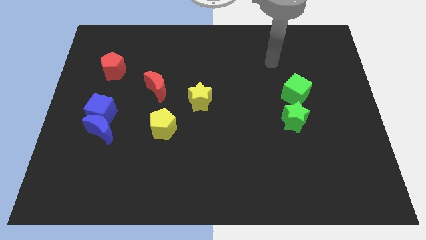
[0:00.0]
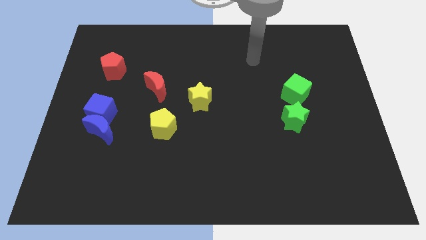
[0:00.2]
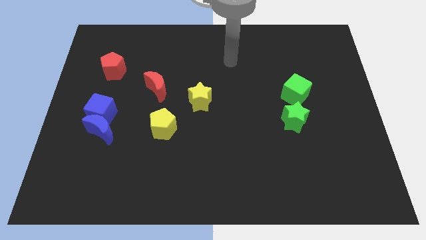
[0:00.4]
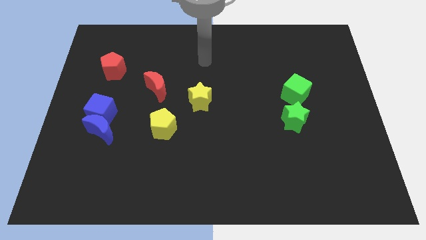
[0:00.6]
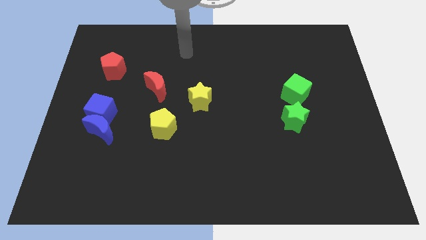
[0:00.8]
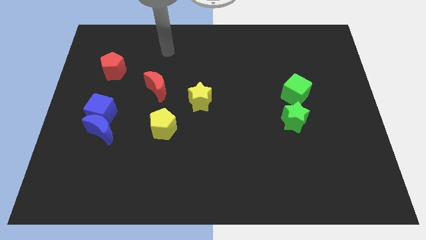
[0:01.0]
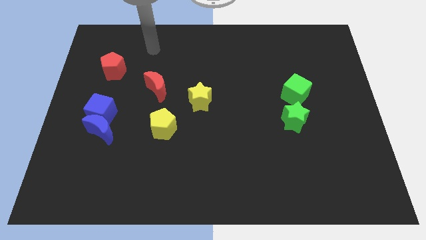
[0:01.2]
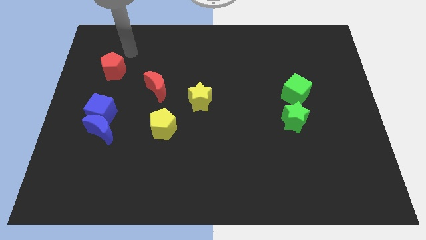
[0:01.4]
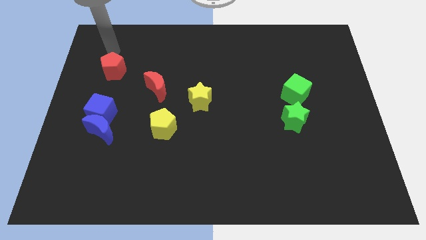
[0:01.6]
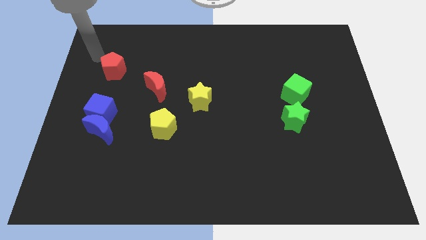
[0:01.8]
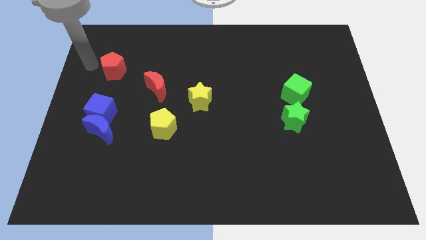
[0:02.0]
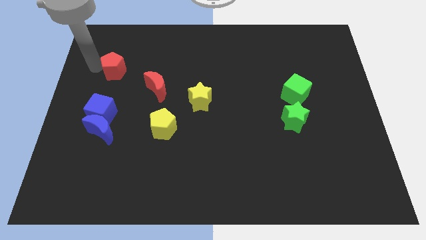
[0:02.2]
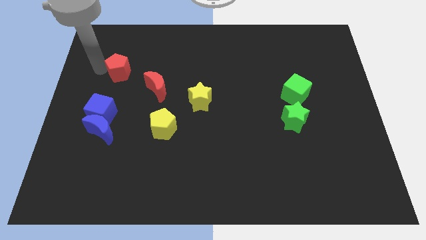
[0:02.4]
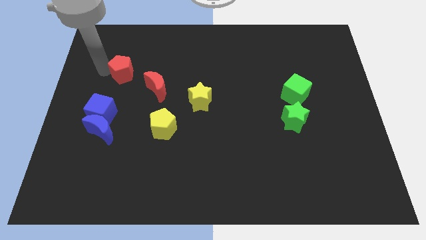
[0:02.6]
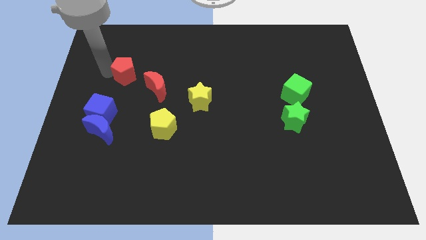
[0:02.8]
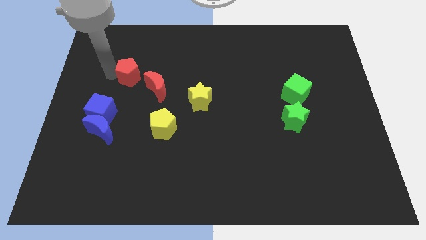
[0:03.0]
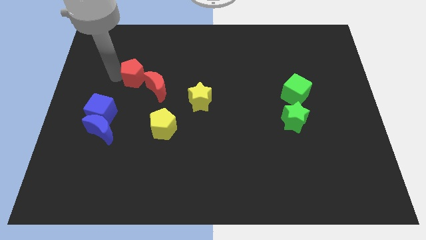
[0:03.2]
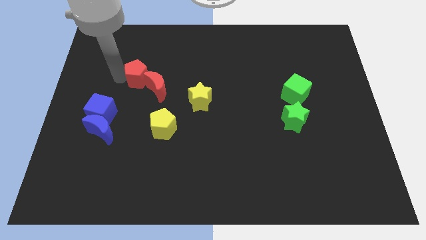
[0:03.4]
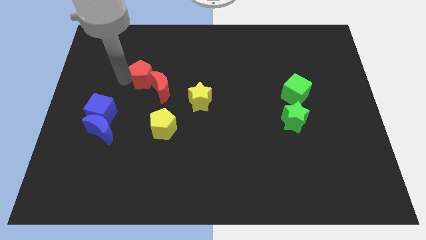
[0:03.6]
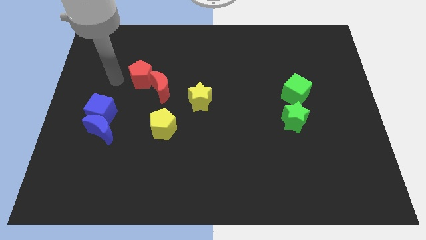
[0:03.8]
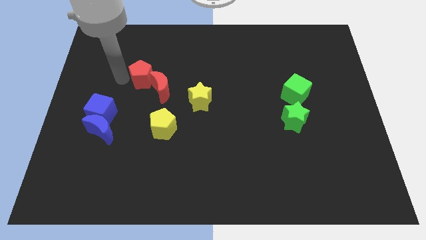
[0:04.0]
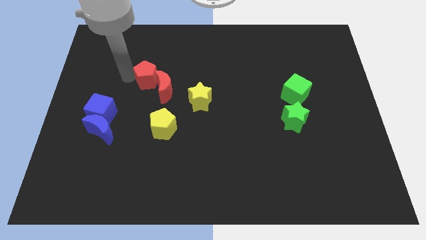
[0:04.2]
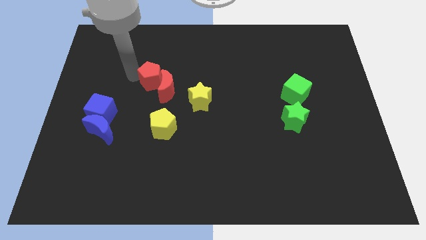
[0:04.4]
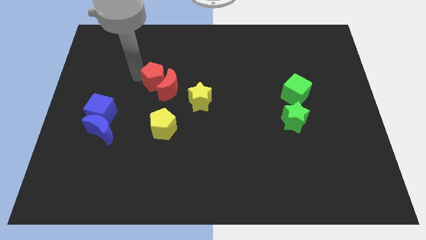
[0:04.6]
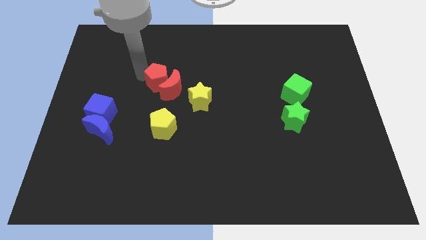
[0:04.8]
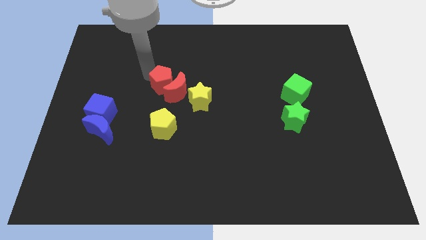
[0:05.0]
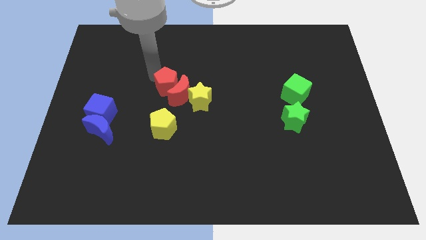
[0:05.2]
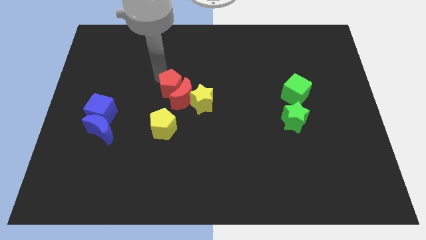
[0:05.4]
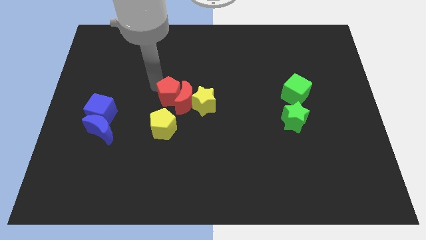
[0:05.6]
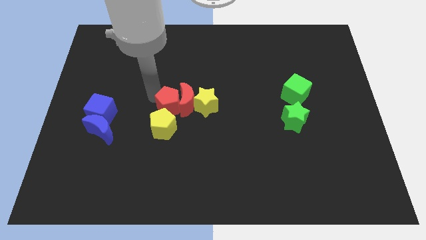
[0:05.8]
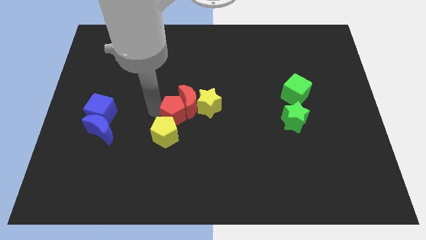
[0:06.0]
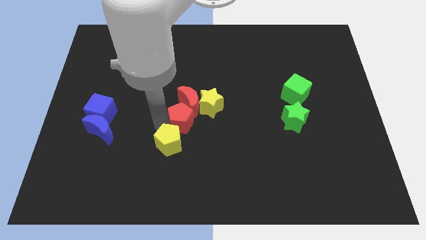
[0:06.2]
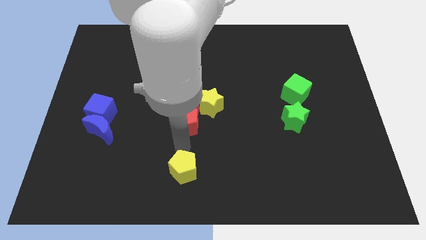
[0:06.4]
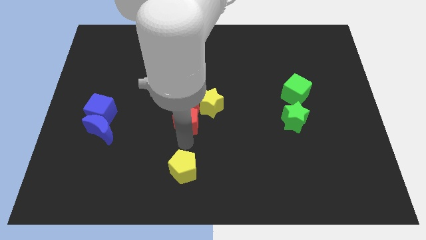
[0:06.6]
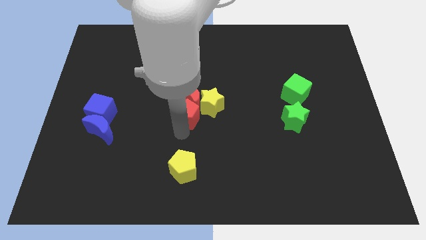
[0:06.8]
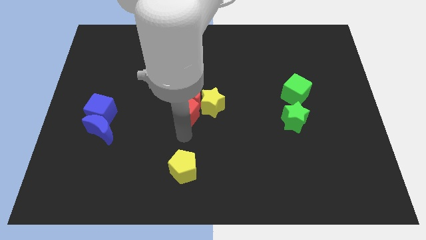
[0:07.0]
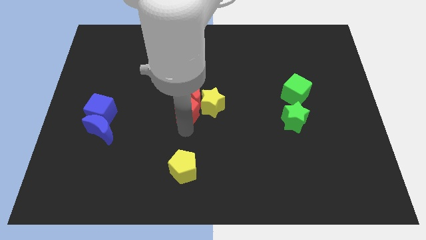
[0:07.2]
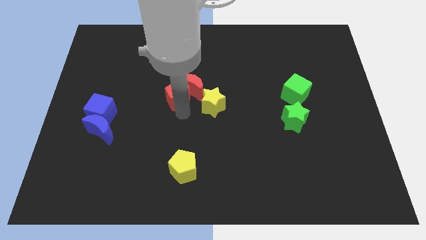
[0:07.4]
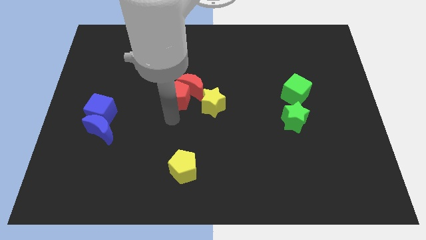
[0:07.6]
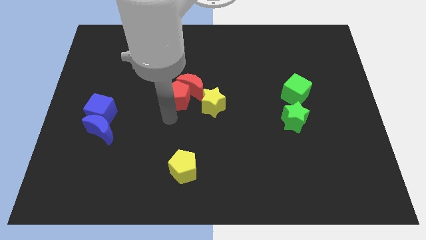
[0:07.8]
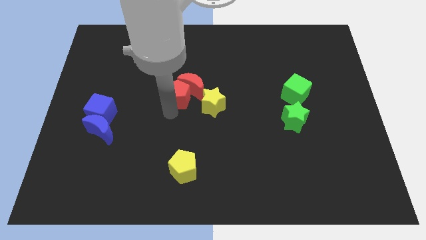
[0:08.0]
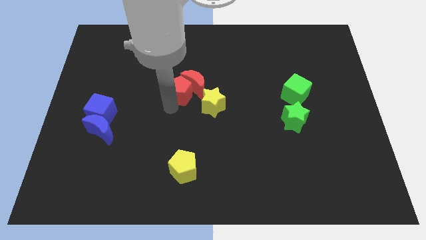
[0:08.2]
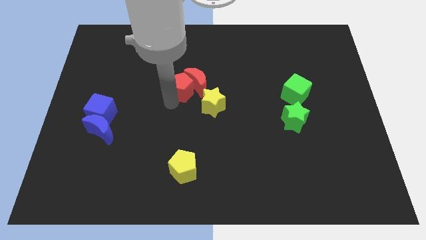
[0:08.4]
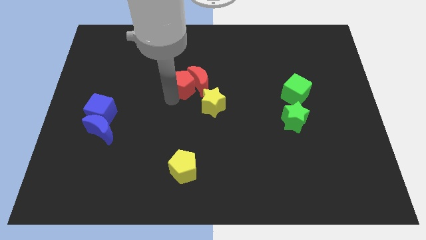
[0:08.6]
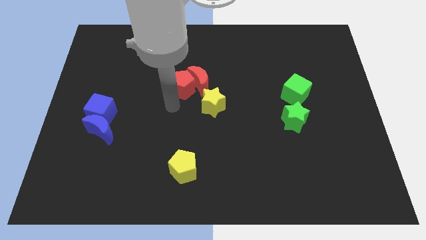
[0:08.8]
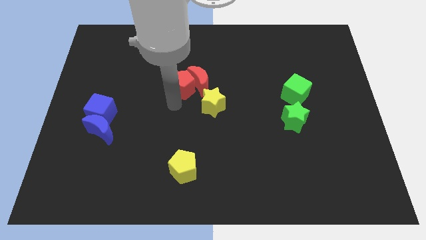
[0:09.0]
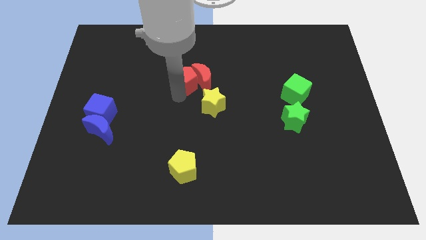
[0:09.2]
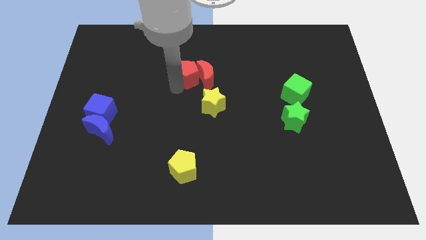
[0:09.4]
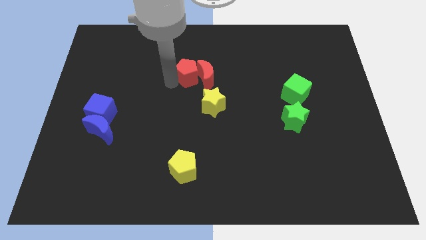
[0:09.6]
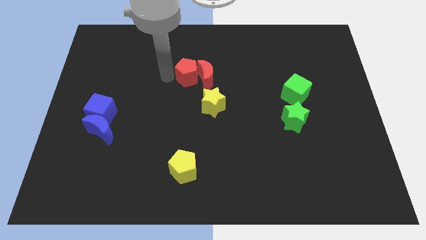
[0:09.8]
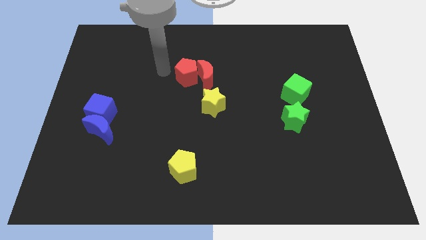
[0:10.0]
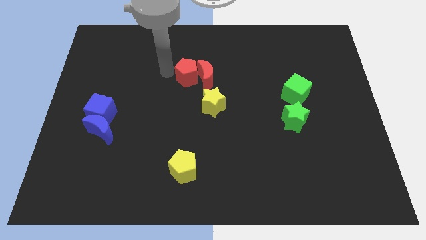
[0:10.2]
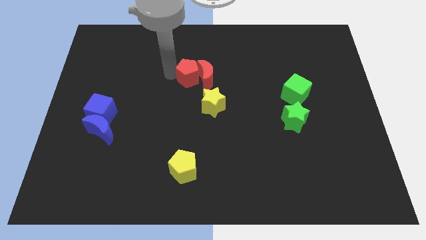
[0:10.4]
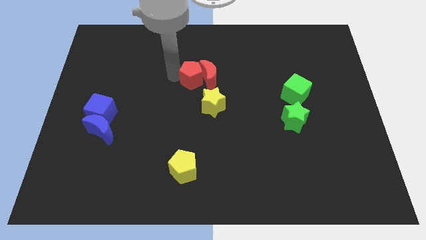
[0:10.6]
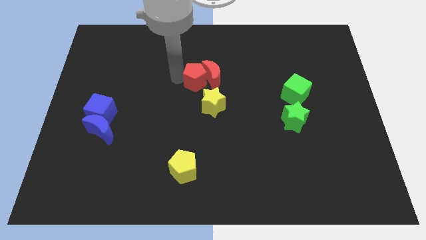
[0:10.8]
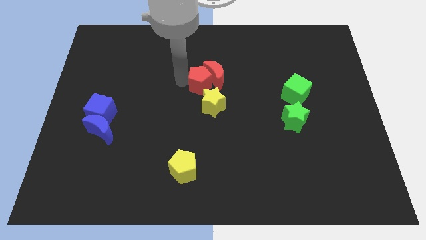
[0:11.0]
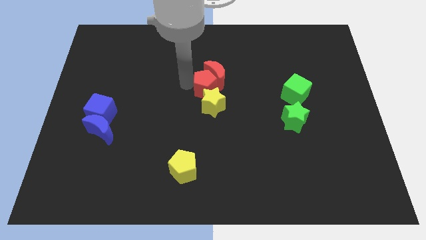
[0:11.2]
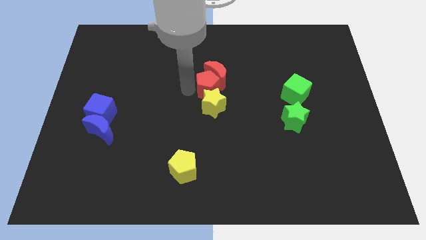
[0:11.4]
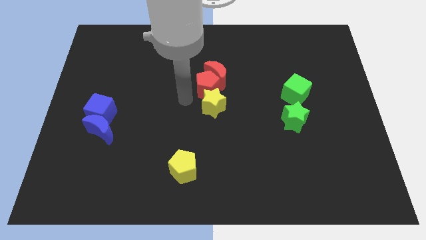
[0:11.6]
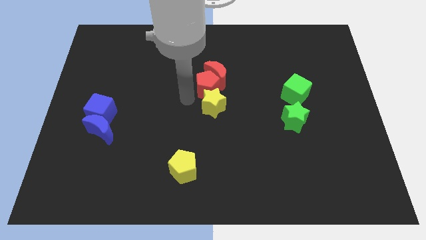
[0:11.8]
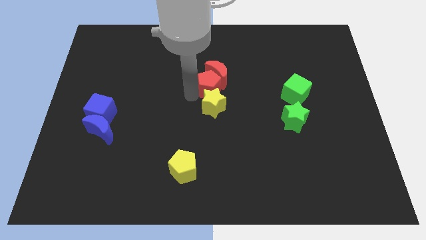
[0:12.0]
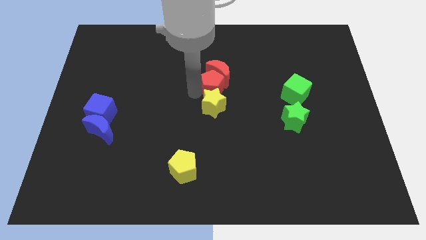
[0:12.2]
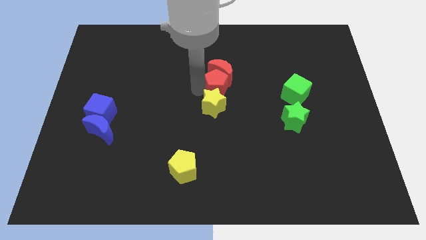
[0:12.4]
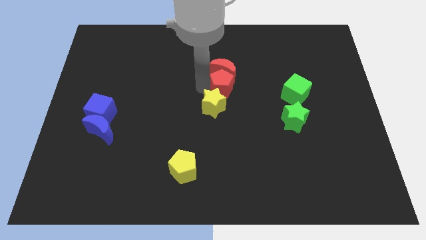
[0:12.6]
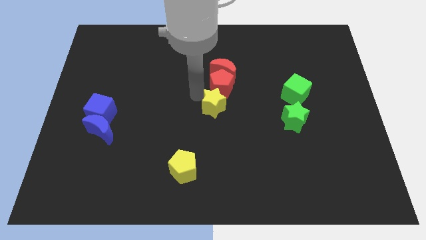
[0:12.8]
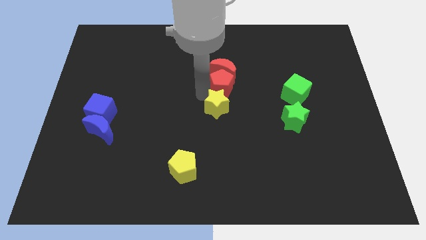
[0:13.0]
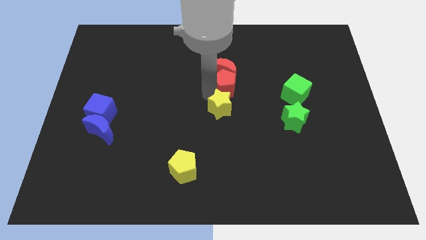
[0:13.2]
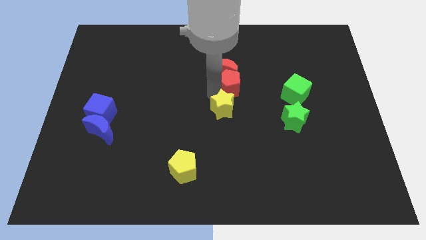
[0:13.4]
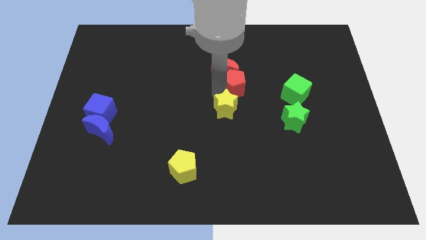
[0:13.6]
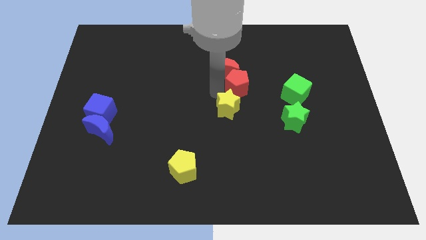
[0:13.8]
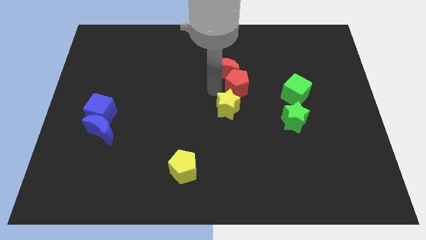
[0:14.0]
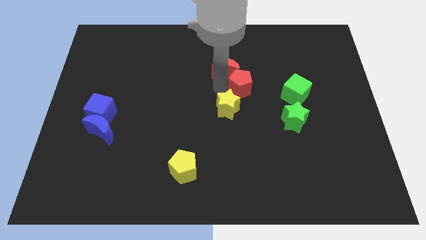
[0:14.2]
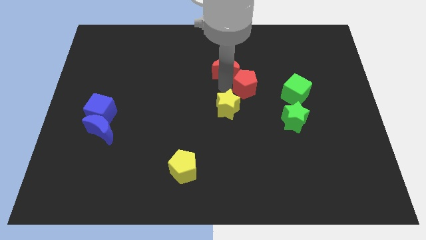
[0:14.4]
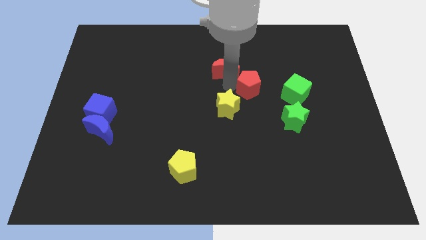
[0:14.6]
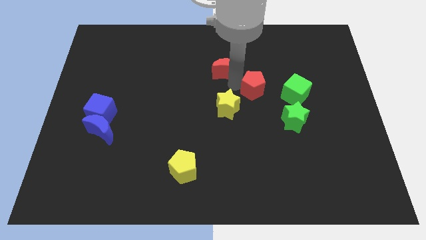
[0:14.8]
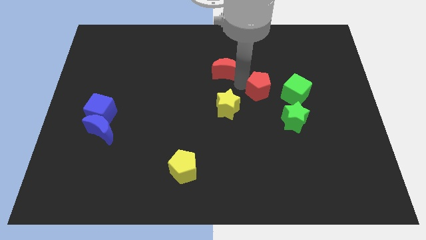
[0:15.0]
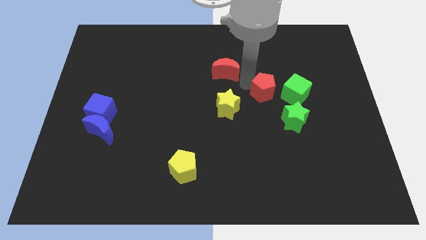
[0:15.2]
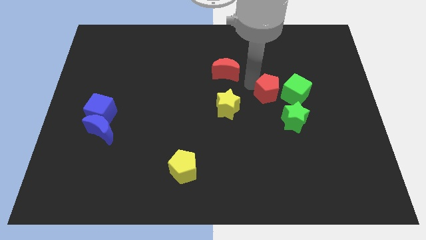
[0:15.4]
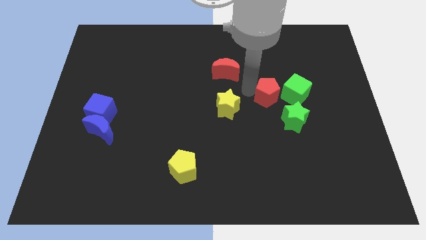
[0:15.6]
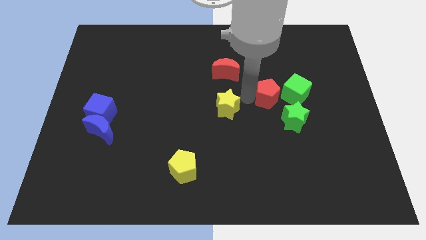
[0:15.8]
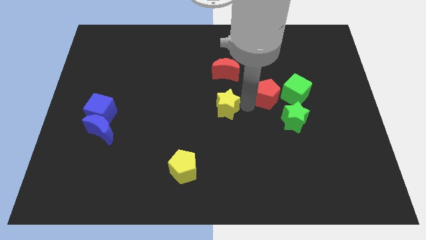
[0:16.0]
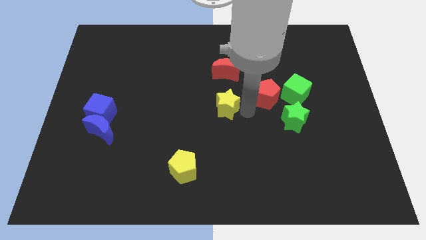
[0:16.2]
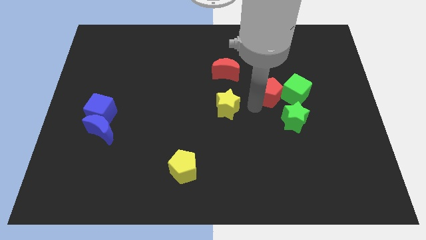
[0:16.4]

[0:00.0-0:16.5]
push the red pentagon close to the green cube
